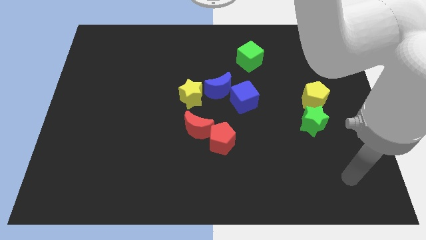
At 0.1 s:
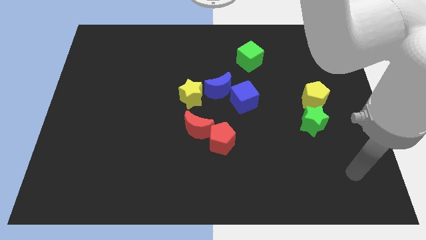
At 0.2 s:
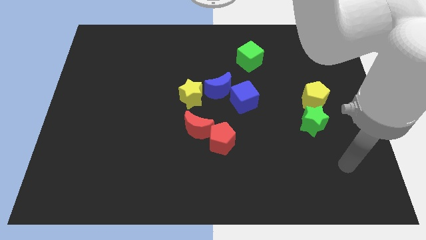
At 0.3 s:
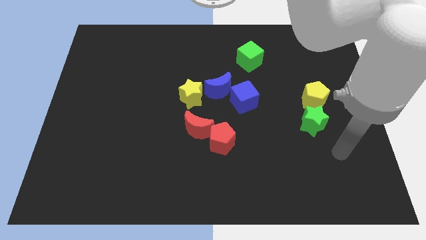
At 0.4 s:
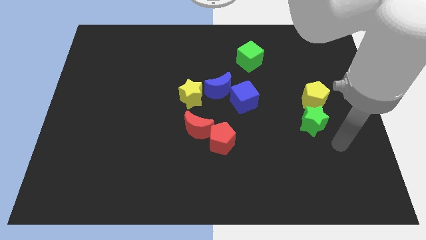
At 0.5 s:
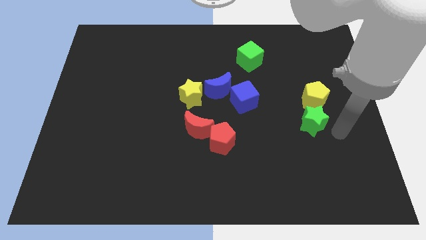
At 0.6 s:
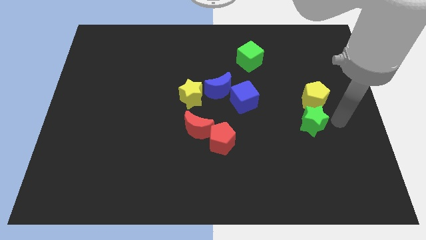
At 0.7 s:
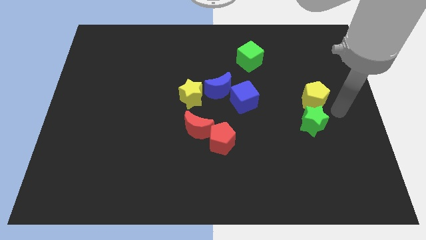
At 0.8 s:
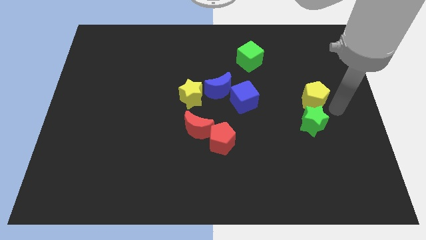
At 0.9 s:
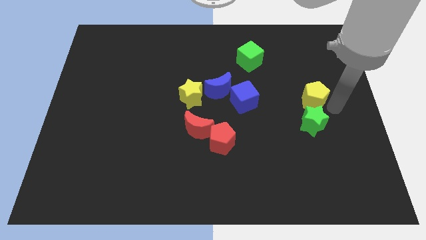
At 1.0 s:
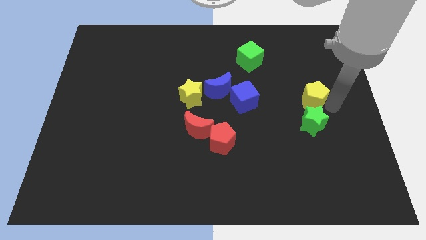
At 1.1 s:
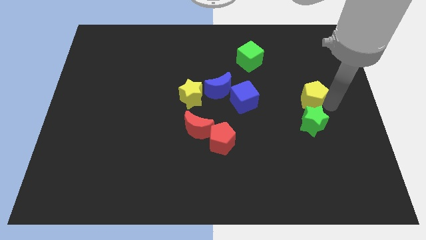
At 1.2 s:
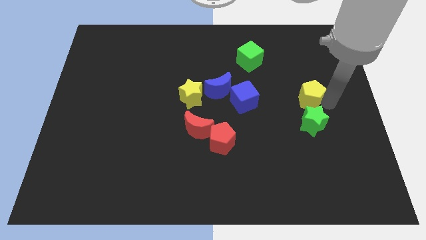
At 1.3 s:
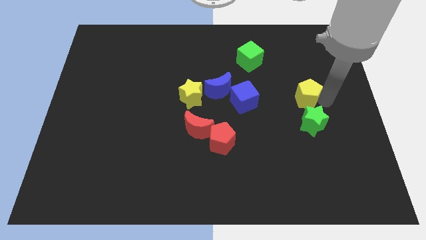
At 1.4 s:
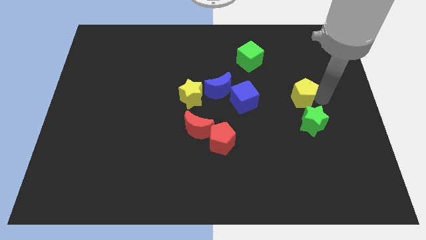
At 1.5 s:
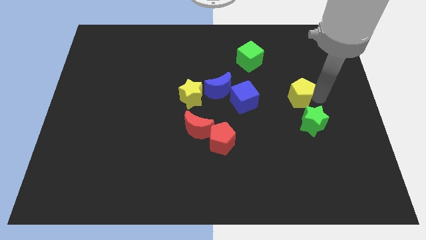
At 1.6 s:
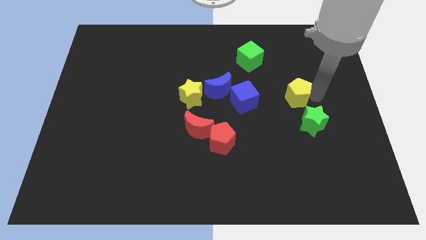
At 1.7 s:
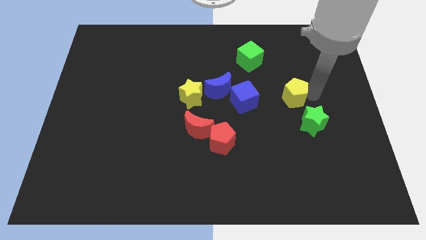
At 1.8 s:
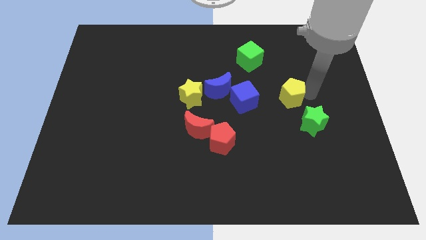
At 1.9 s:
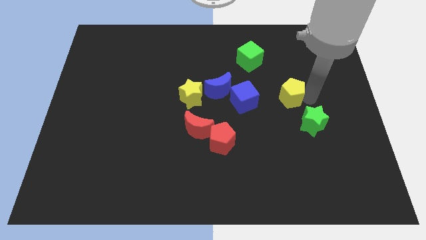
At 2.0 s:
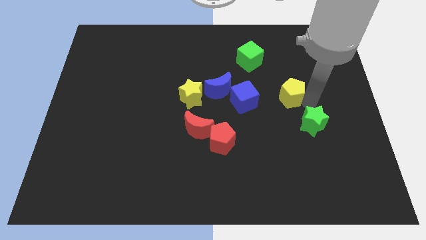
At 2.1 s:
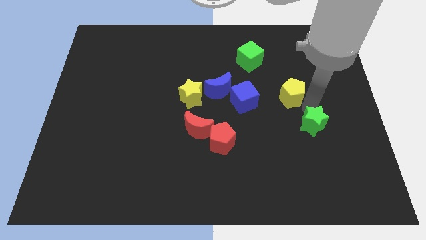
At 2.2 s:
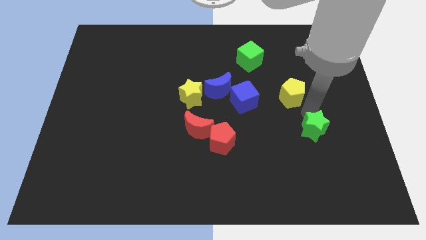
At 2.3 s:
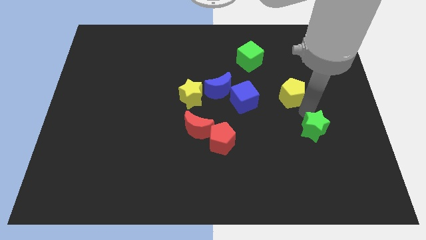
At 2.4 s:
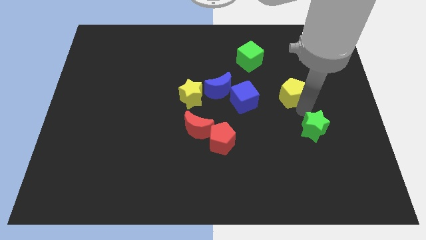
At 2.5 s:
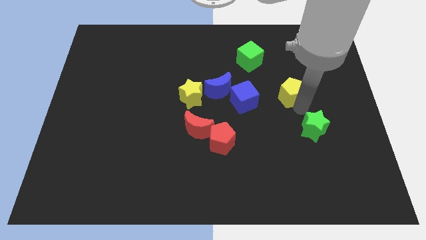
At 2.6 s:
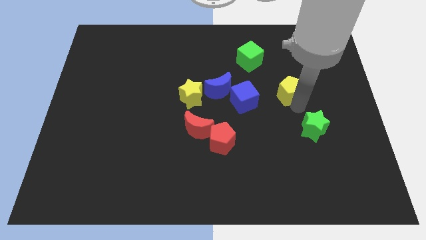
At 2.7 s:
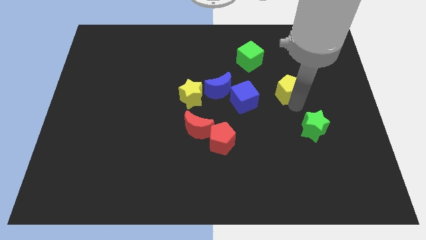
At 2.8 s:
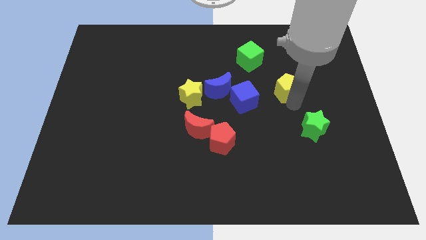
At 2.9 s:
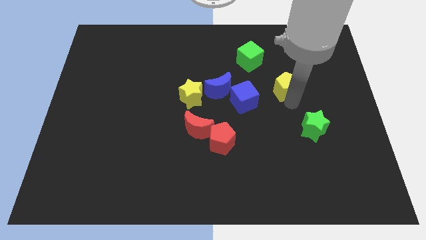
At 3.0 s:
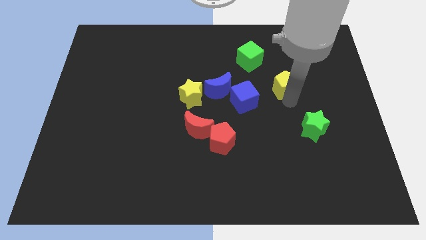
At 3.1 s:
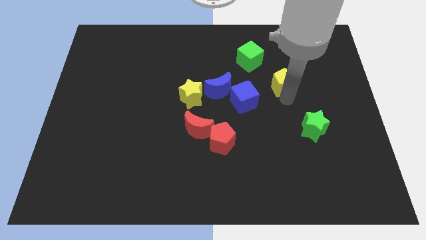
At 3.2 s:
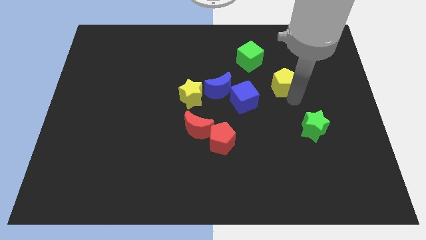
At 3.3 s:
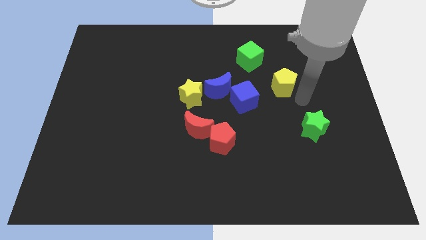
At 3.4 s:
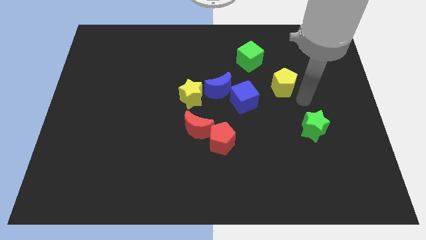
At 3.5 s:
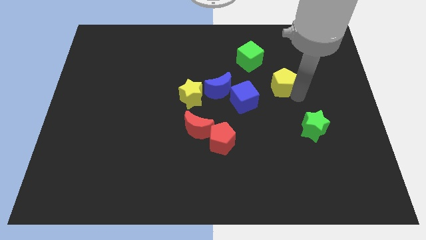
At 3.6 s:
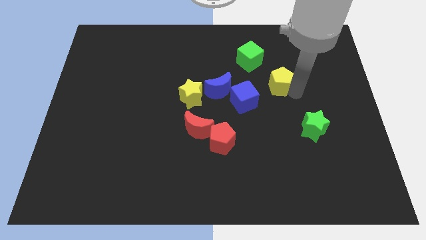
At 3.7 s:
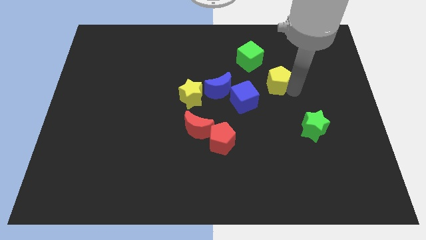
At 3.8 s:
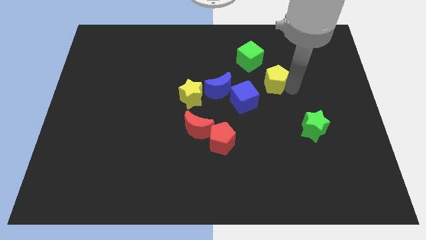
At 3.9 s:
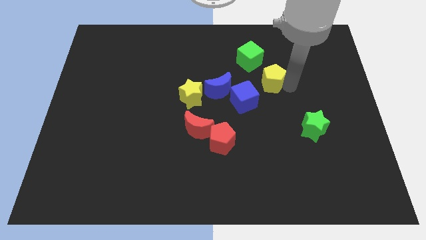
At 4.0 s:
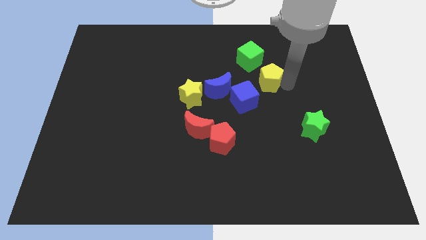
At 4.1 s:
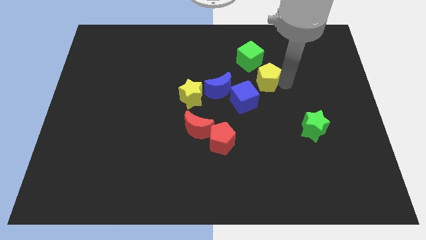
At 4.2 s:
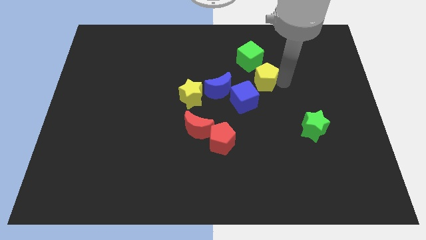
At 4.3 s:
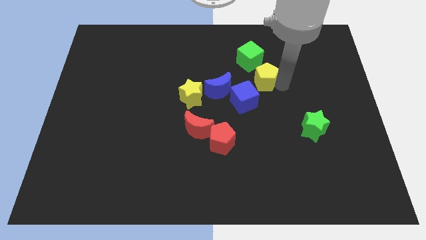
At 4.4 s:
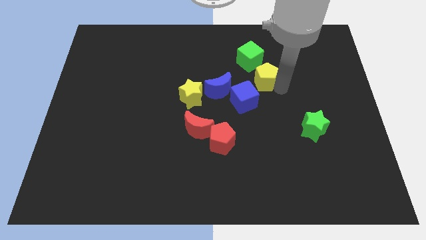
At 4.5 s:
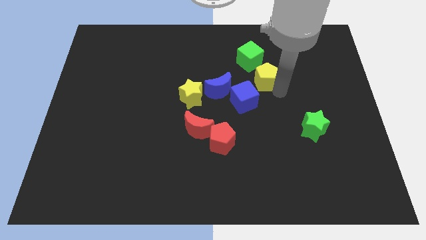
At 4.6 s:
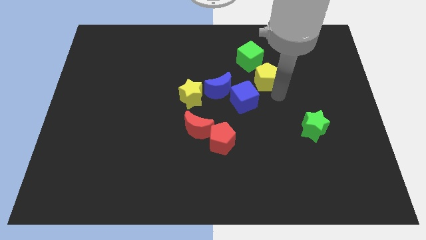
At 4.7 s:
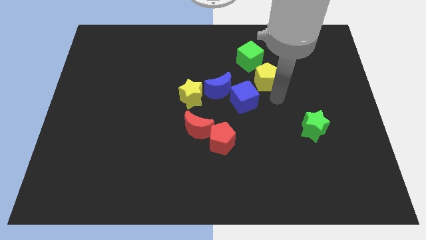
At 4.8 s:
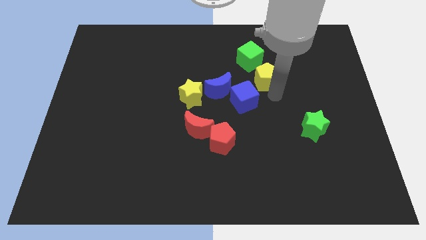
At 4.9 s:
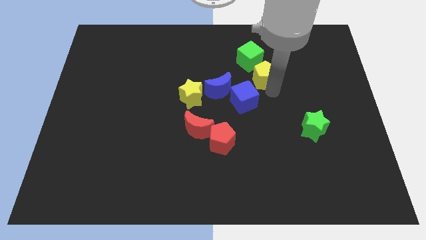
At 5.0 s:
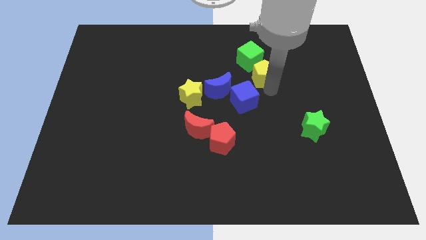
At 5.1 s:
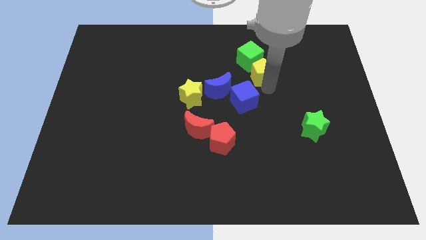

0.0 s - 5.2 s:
slide the yellow pentagon close to the green cube

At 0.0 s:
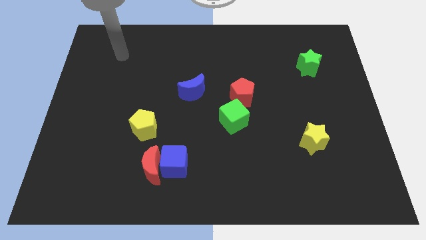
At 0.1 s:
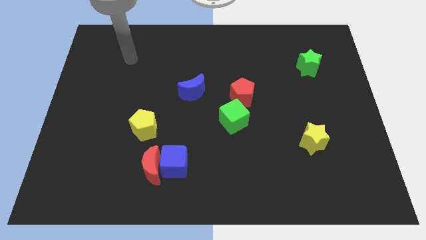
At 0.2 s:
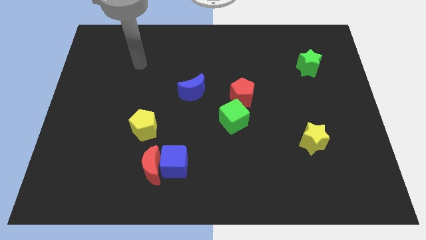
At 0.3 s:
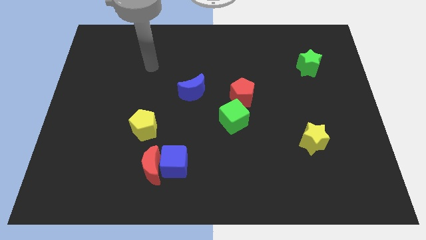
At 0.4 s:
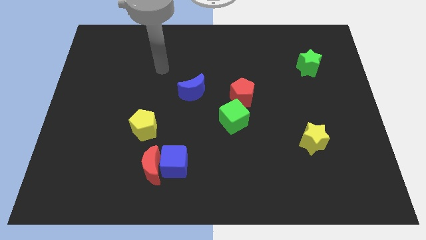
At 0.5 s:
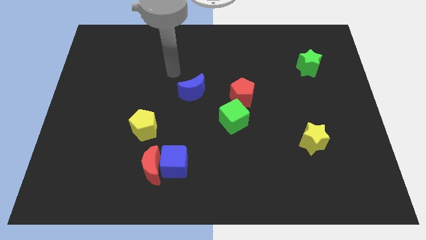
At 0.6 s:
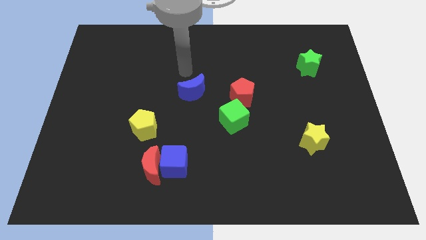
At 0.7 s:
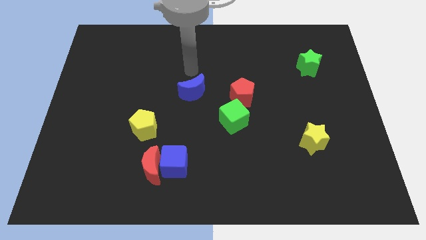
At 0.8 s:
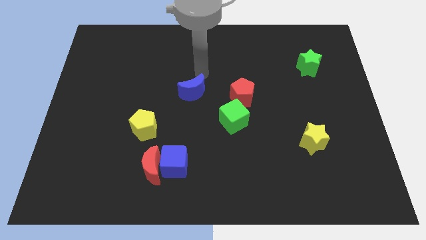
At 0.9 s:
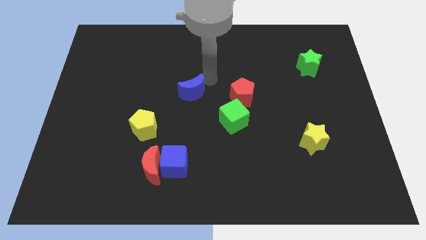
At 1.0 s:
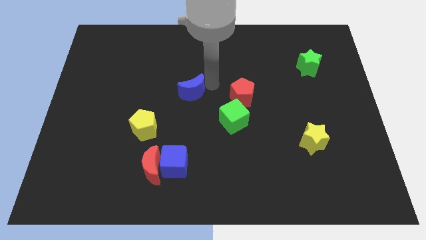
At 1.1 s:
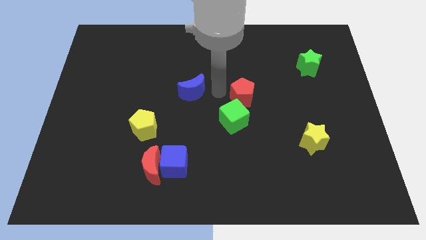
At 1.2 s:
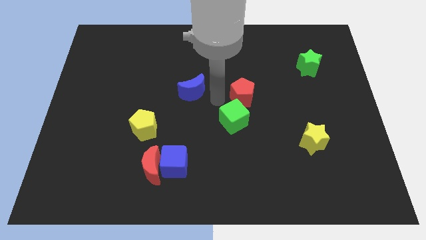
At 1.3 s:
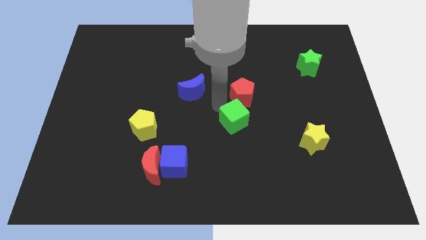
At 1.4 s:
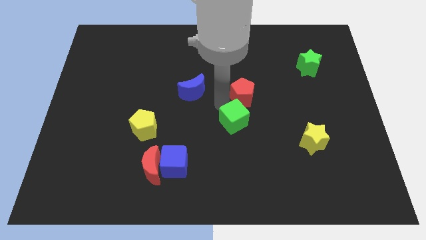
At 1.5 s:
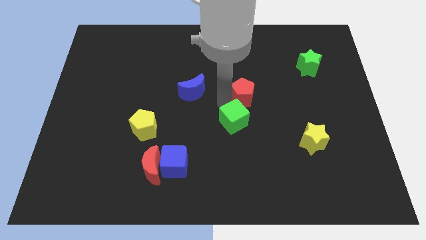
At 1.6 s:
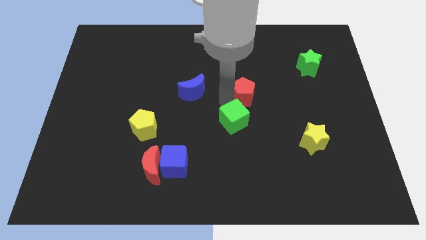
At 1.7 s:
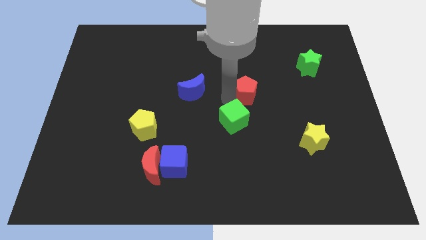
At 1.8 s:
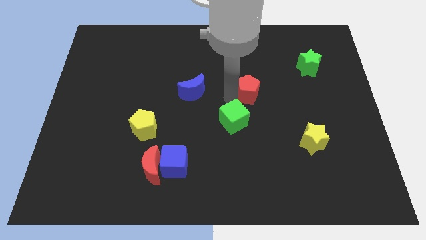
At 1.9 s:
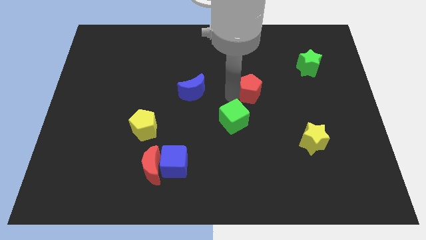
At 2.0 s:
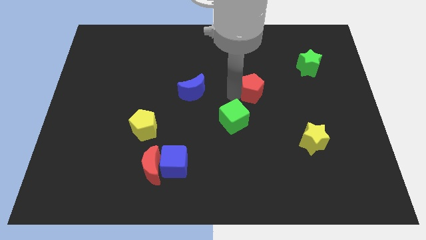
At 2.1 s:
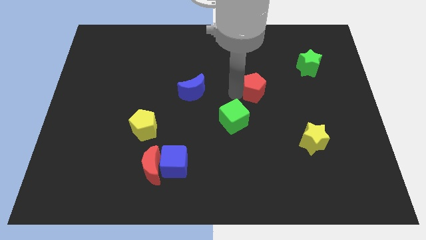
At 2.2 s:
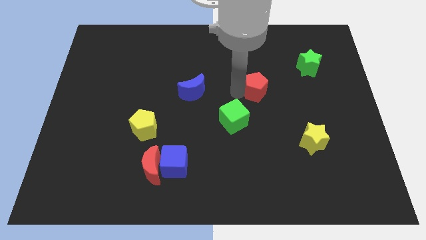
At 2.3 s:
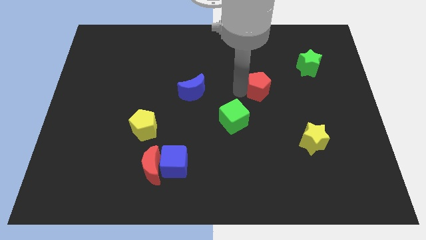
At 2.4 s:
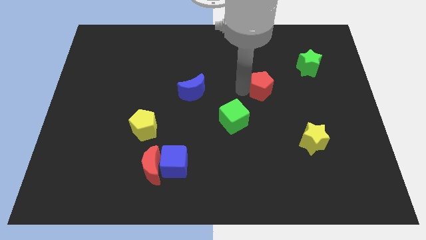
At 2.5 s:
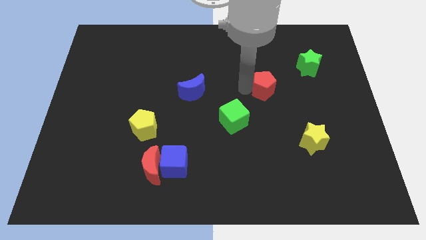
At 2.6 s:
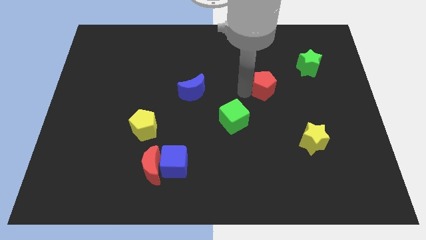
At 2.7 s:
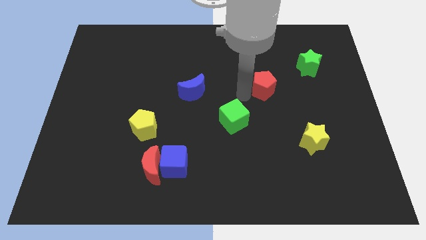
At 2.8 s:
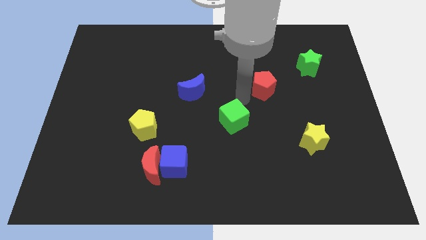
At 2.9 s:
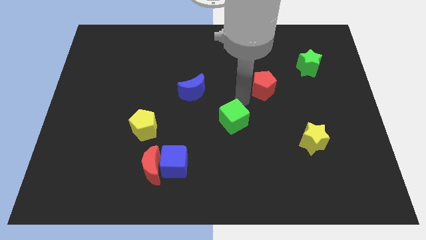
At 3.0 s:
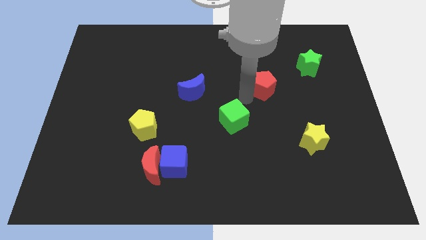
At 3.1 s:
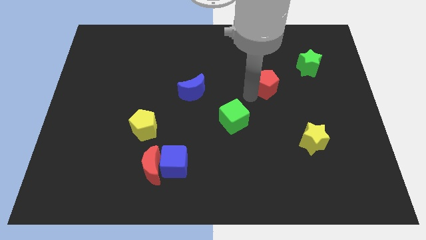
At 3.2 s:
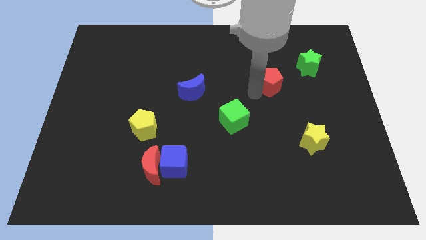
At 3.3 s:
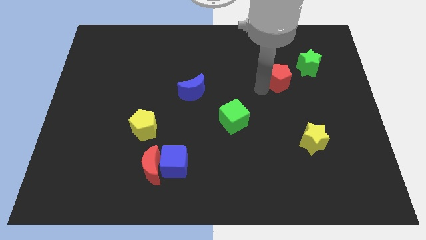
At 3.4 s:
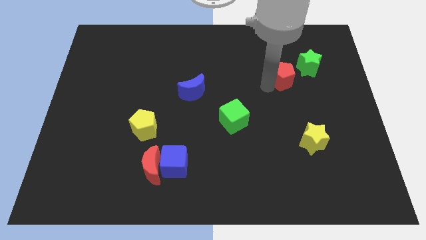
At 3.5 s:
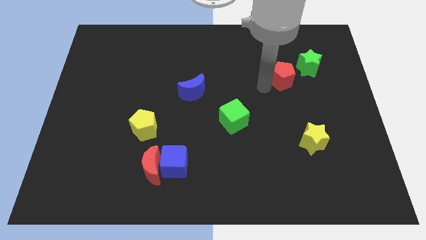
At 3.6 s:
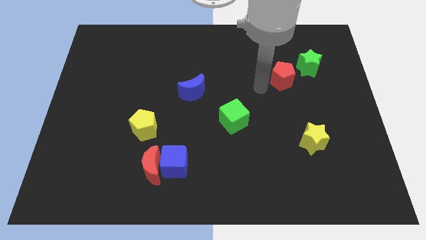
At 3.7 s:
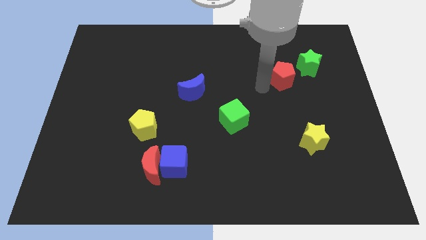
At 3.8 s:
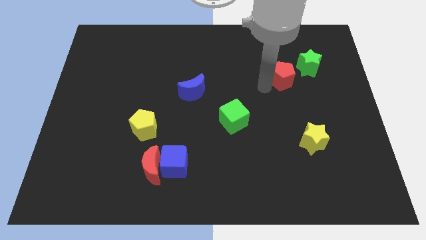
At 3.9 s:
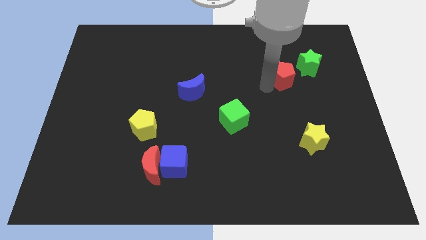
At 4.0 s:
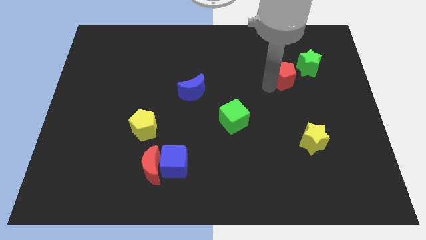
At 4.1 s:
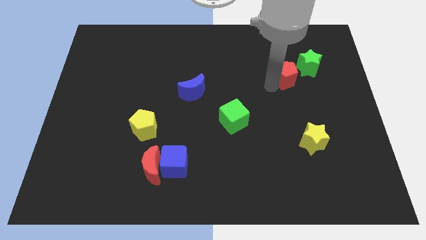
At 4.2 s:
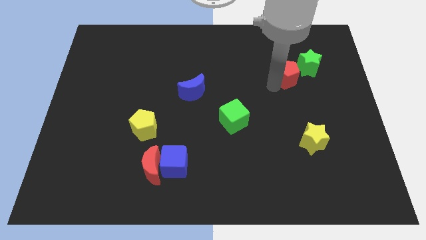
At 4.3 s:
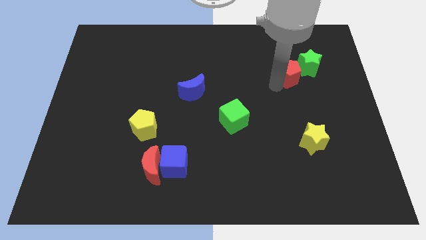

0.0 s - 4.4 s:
push the red pentagon towards the green star
